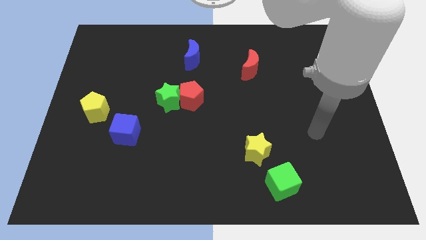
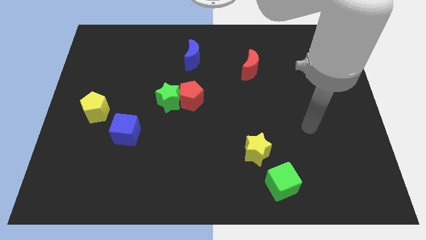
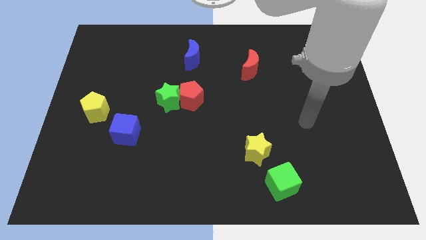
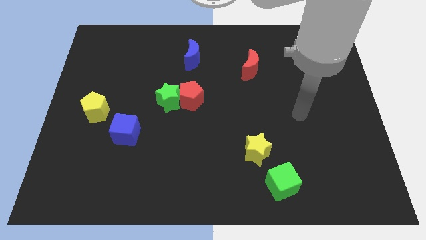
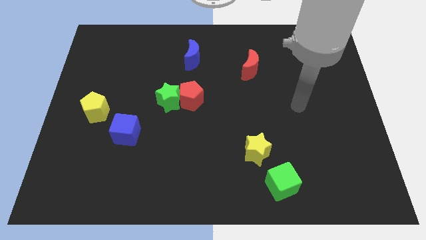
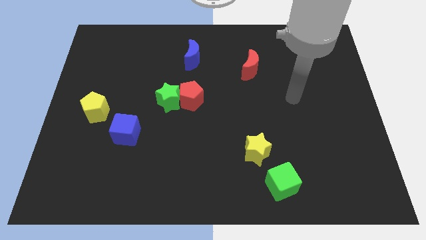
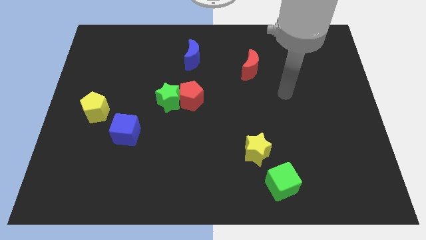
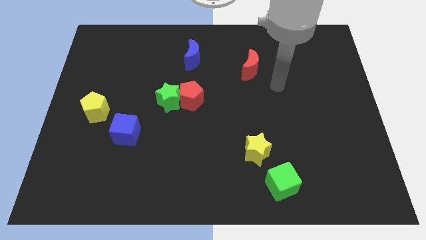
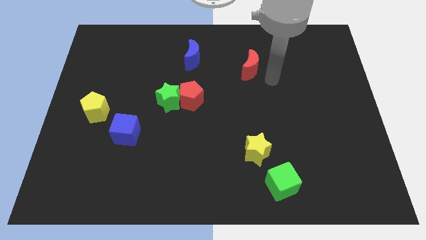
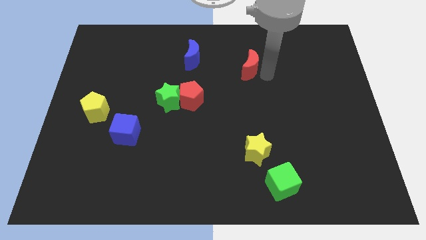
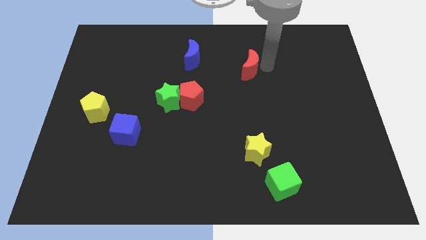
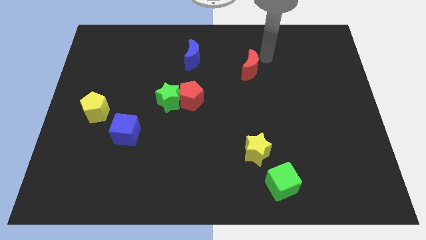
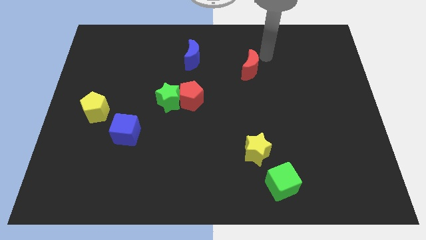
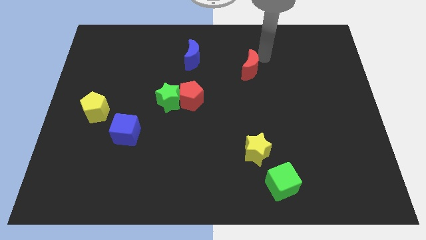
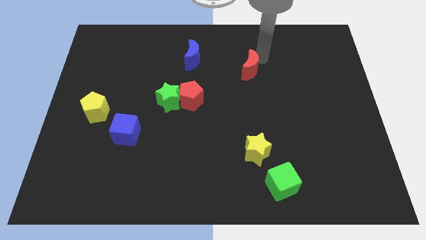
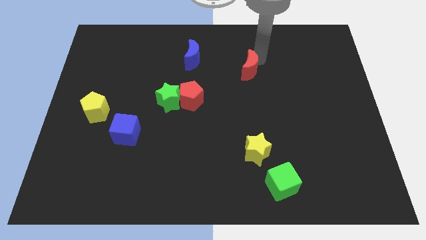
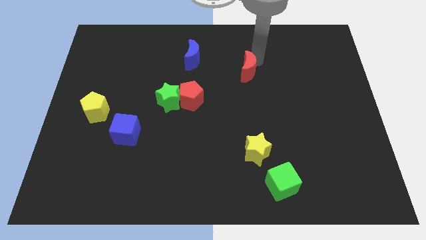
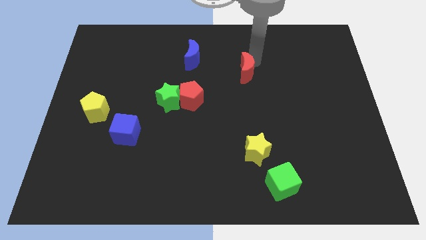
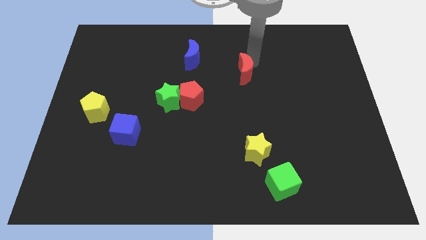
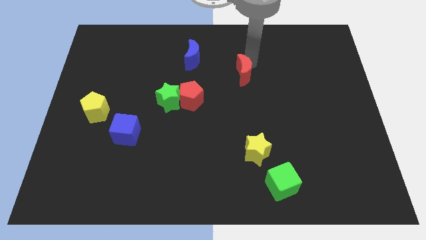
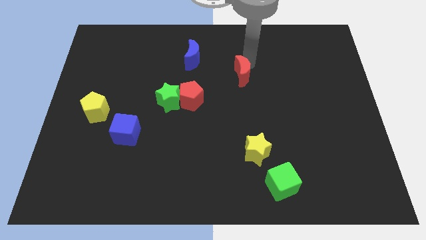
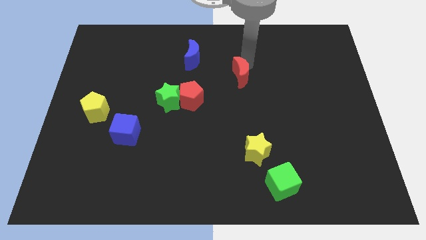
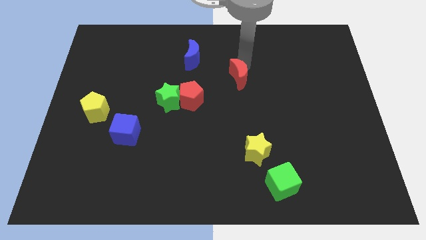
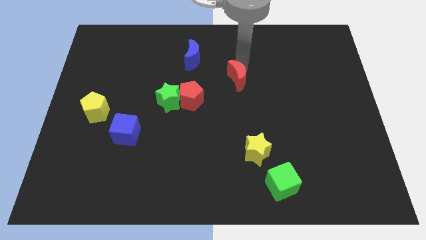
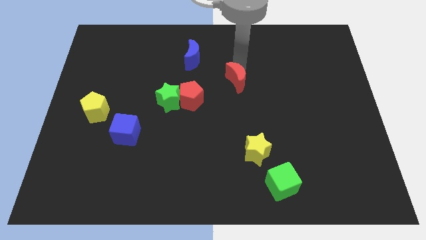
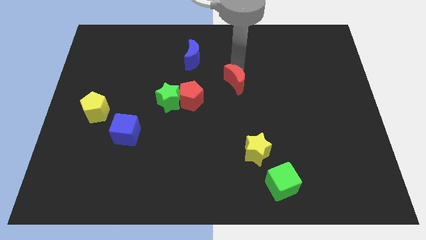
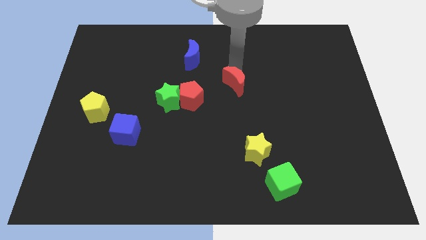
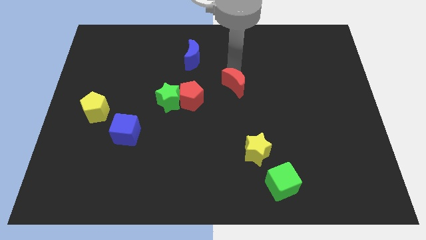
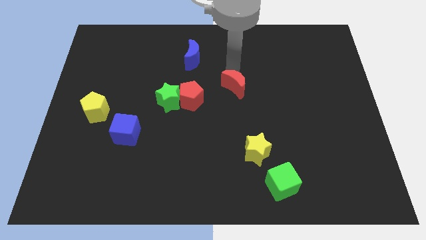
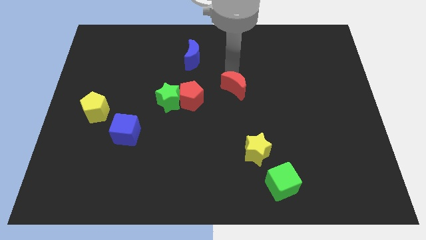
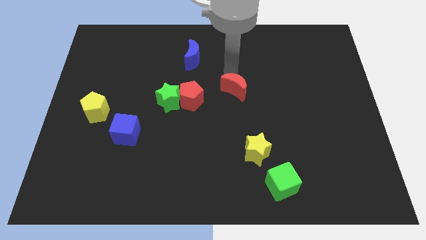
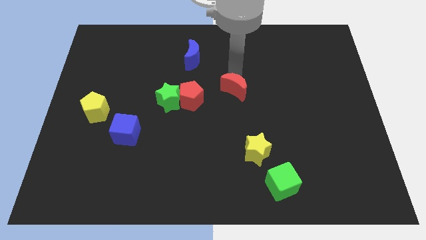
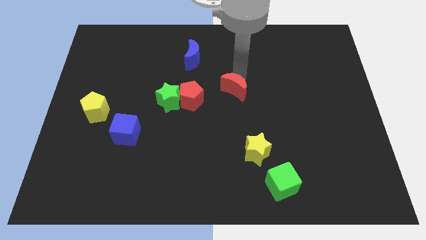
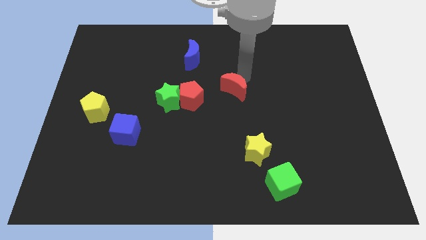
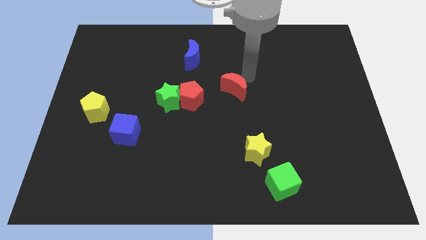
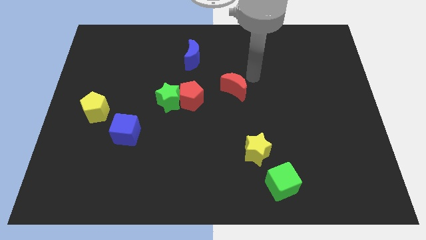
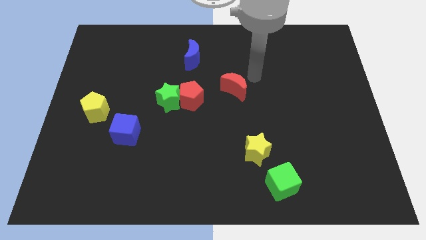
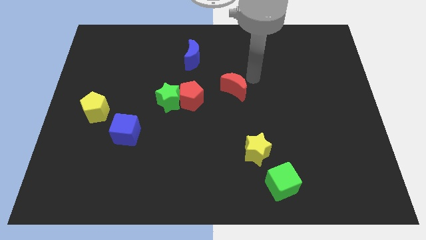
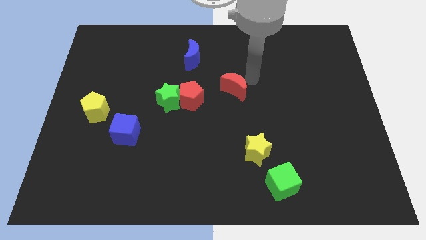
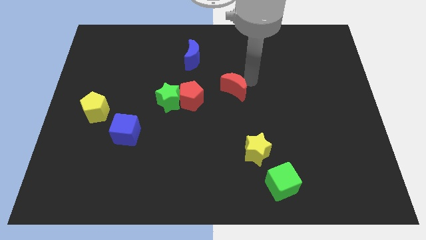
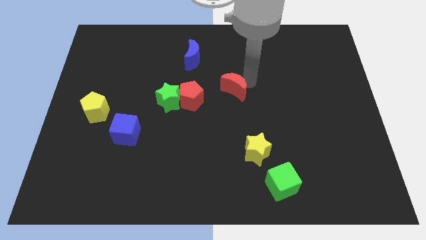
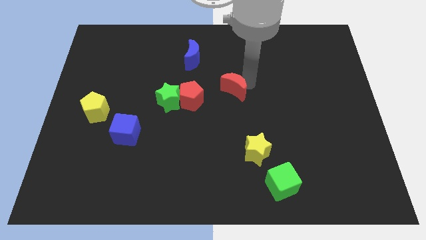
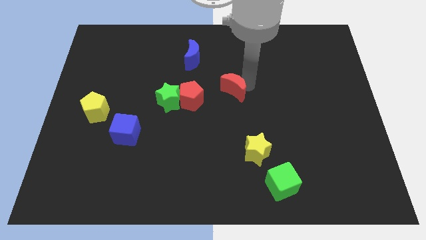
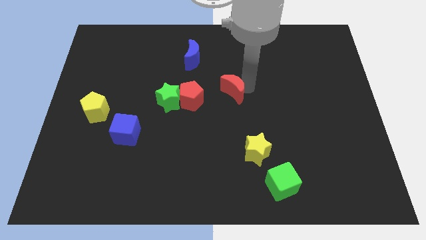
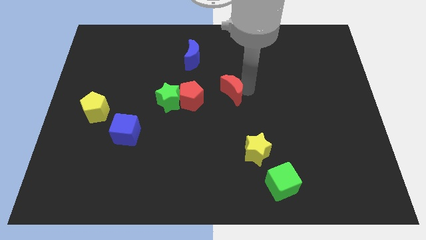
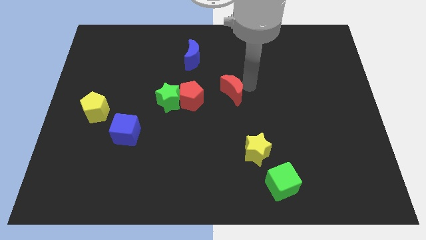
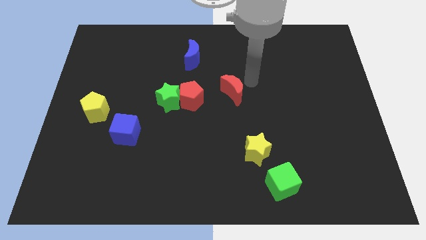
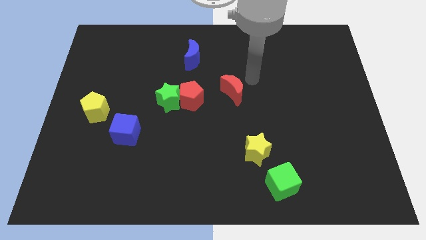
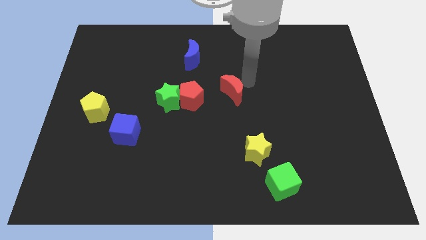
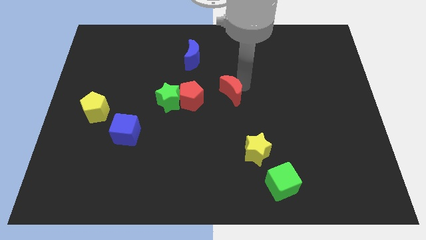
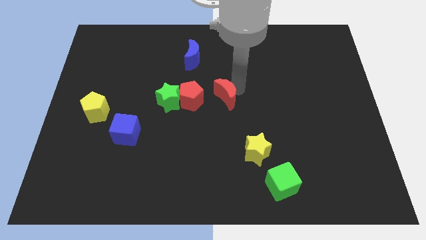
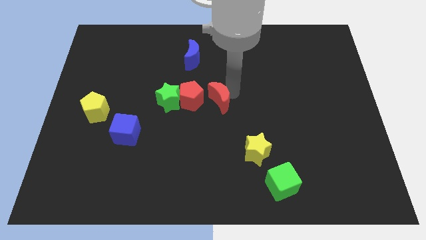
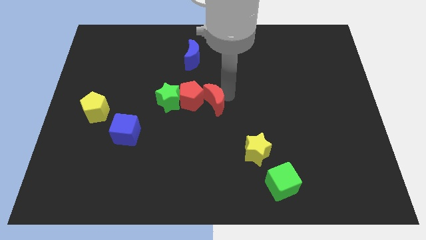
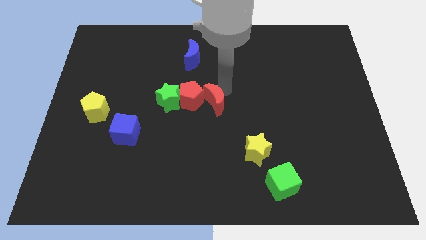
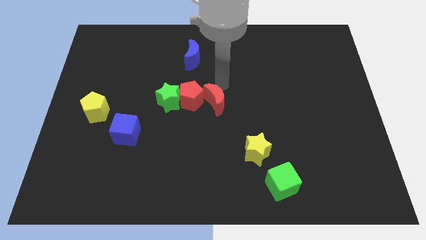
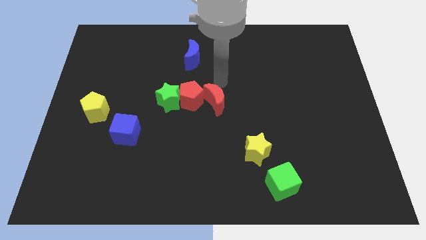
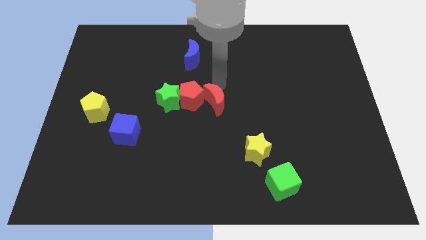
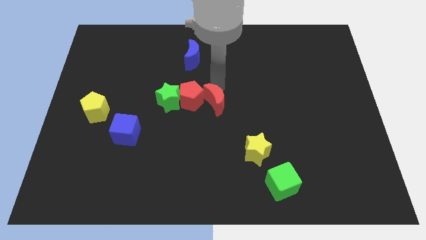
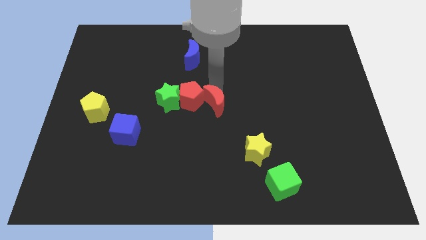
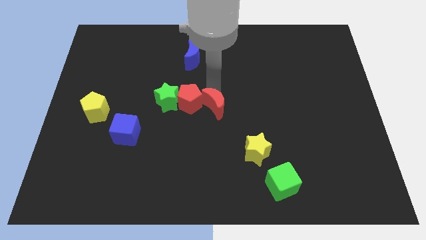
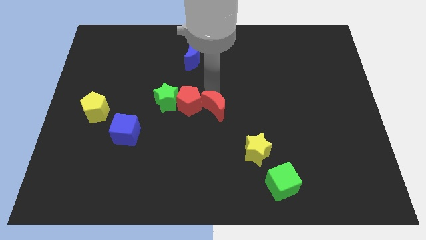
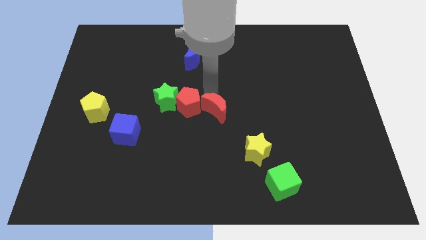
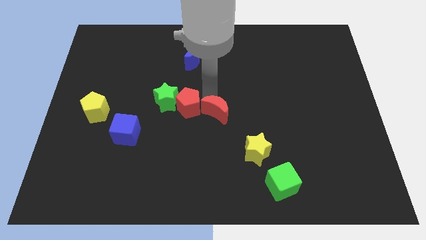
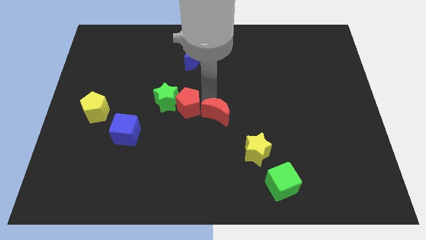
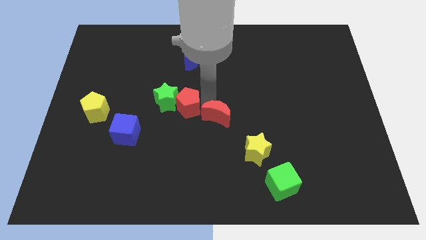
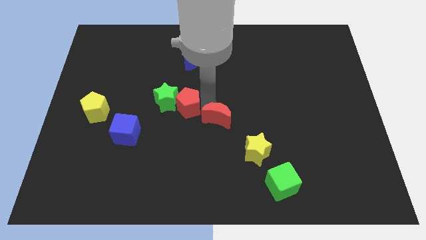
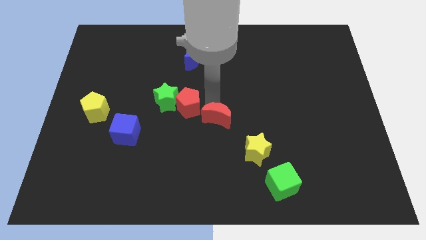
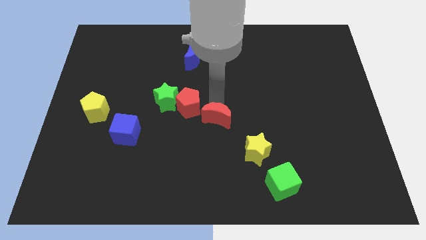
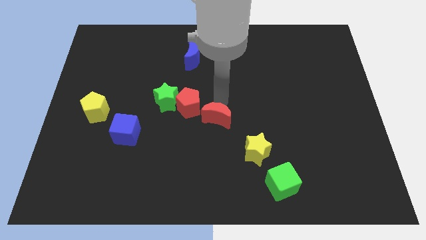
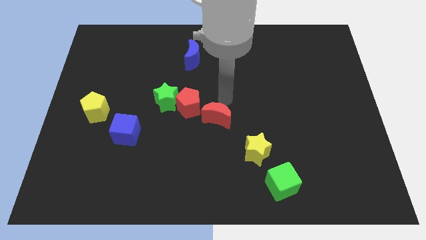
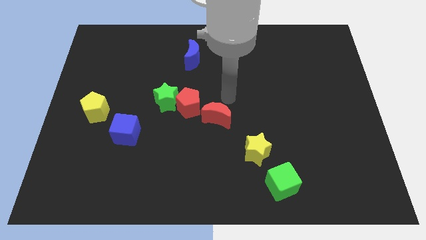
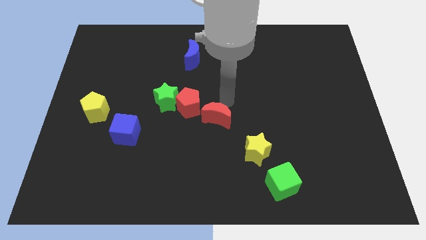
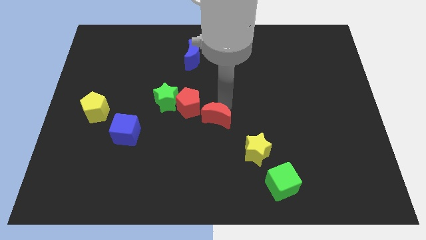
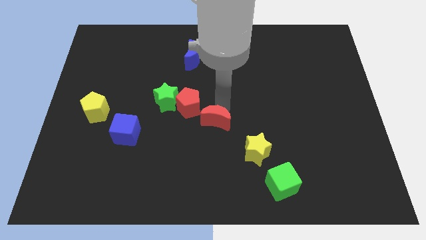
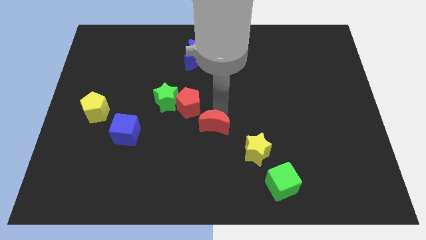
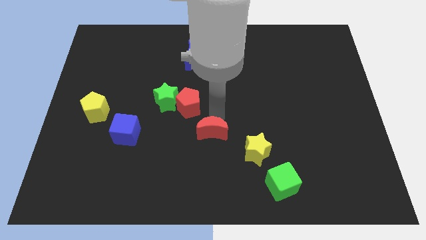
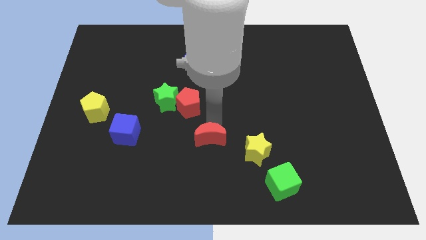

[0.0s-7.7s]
put the red moon left of the yellow star

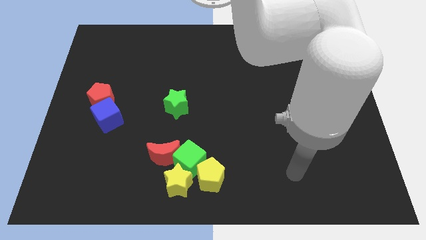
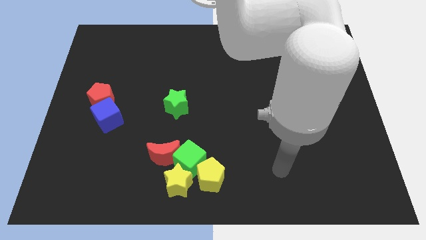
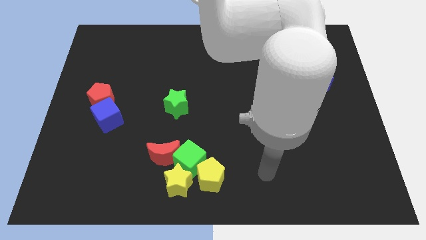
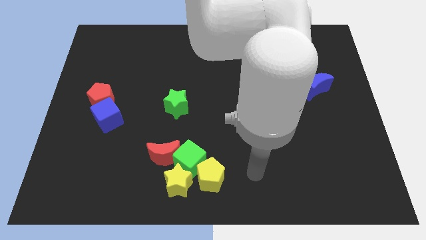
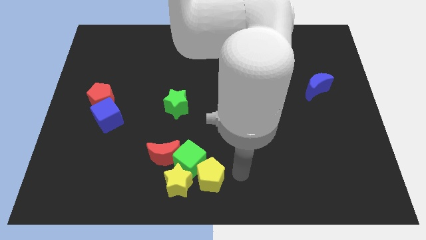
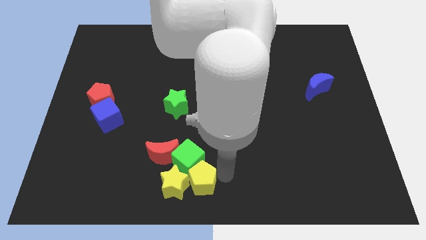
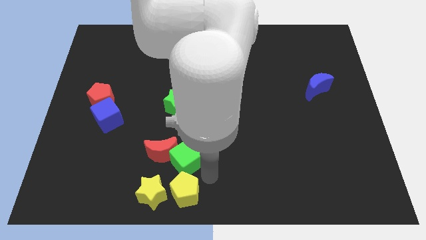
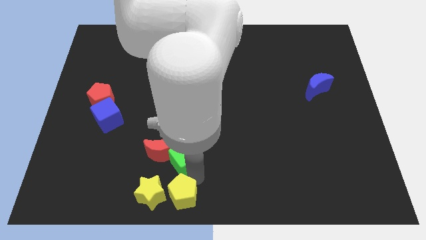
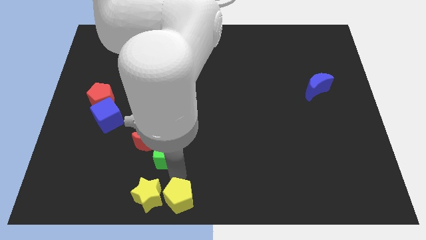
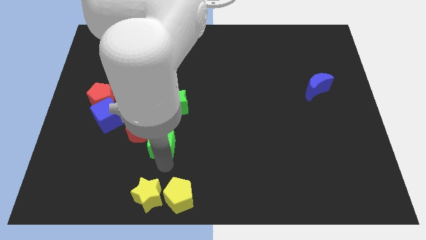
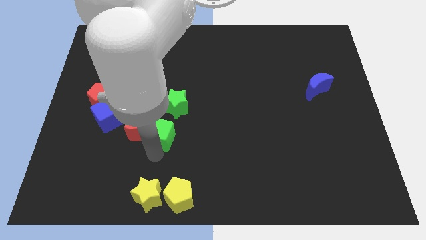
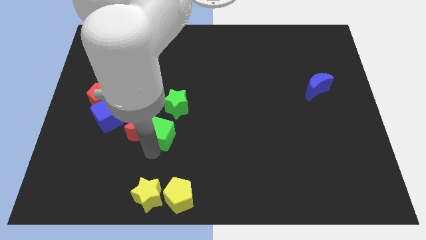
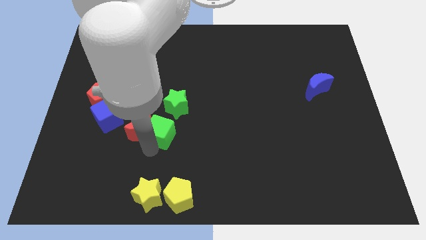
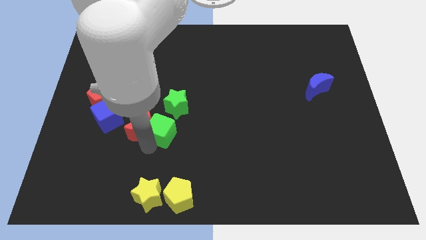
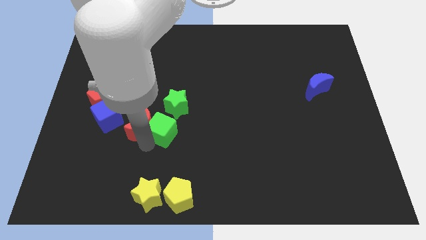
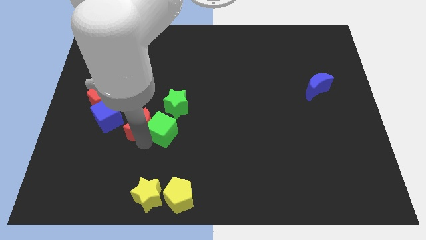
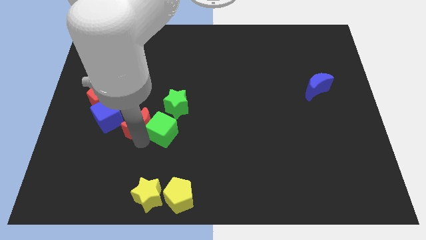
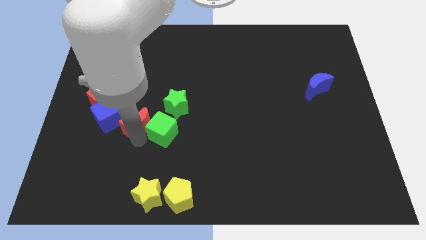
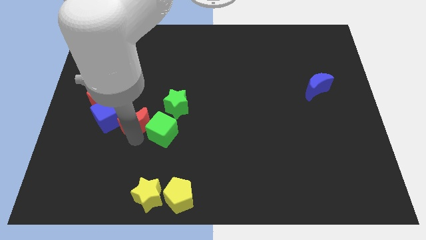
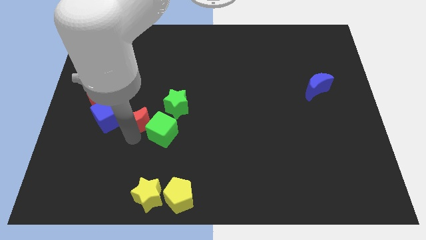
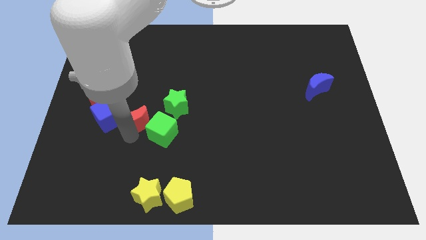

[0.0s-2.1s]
put the red moon to the left side of the green star
